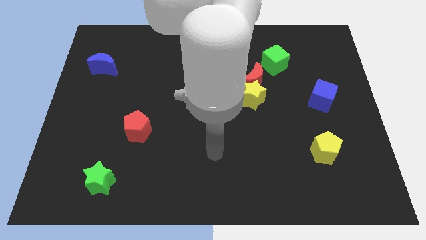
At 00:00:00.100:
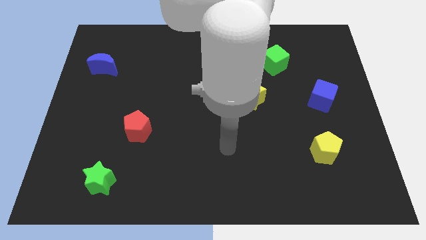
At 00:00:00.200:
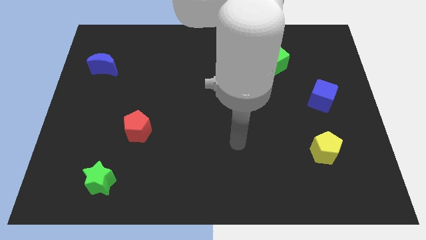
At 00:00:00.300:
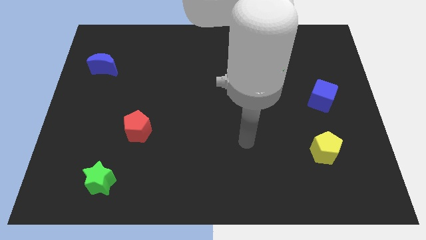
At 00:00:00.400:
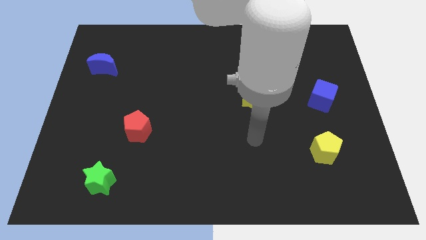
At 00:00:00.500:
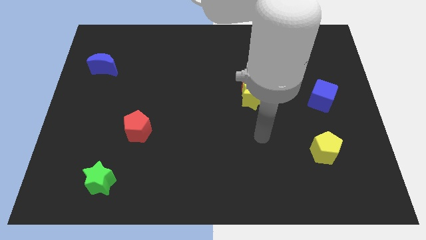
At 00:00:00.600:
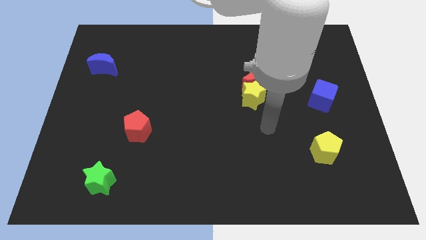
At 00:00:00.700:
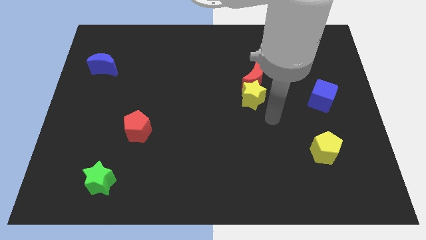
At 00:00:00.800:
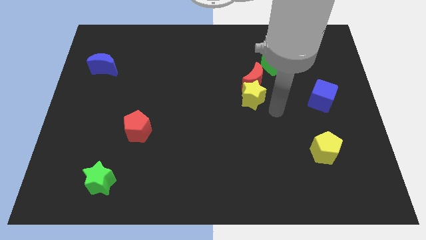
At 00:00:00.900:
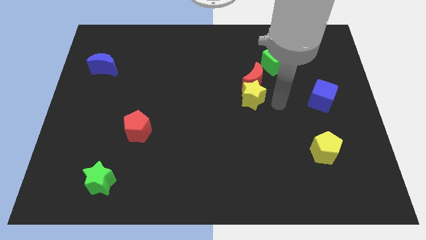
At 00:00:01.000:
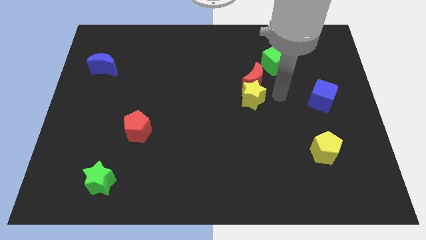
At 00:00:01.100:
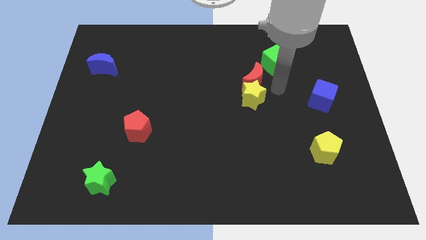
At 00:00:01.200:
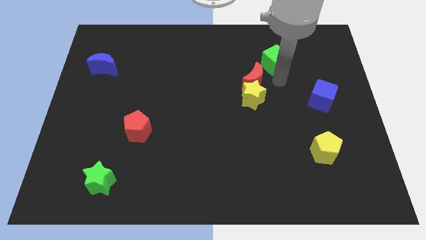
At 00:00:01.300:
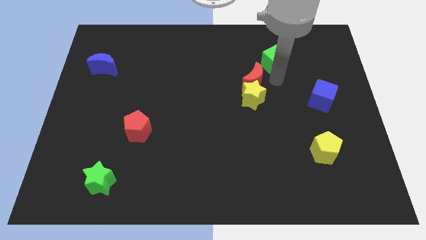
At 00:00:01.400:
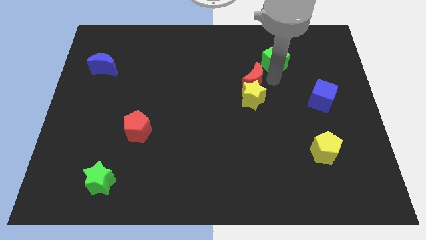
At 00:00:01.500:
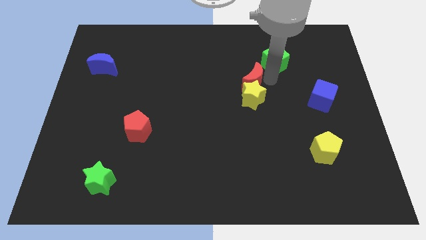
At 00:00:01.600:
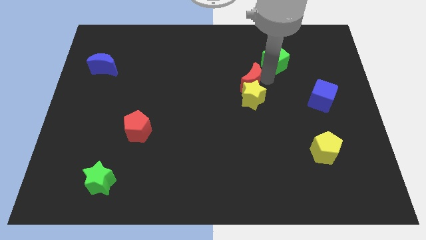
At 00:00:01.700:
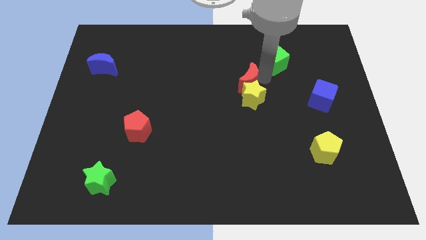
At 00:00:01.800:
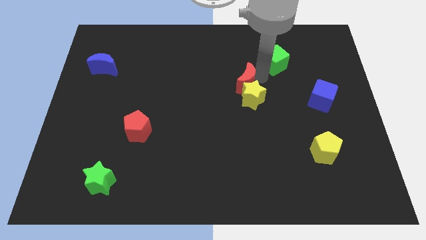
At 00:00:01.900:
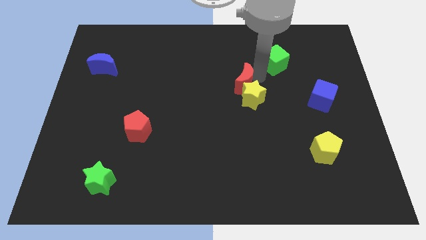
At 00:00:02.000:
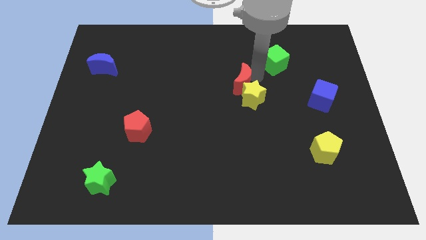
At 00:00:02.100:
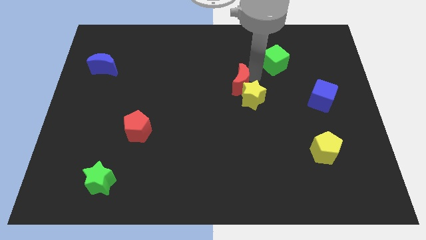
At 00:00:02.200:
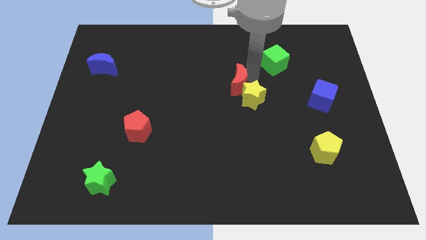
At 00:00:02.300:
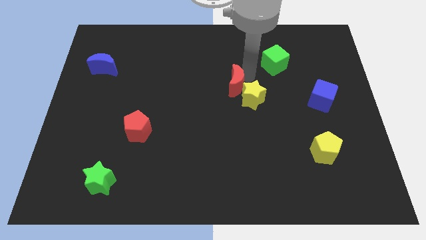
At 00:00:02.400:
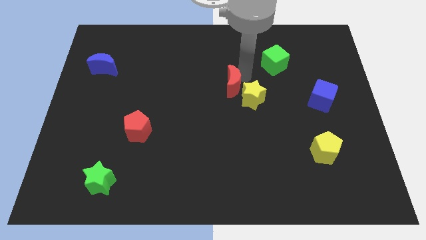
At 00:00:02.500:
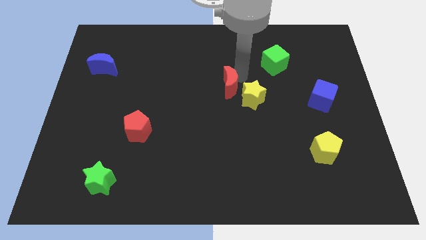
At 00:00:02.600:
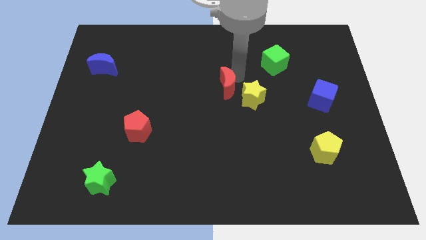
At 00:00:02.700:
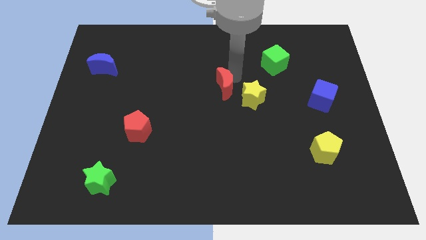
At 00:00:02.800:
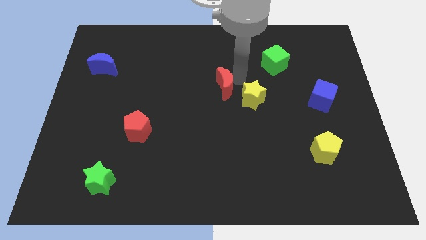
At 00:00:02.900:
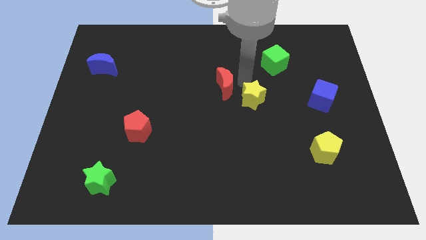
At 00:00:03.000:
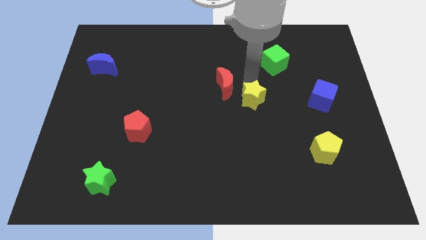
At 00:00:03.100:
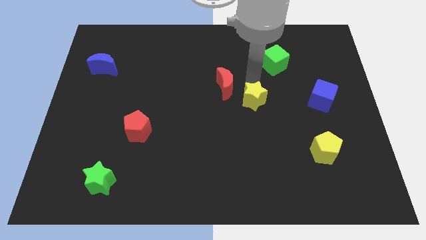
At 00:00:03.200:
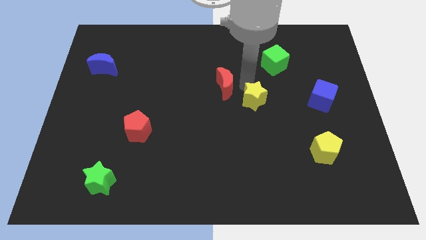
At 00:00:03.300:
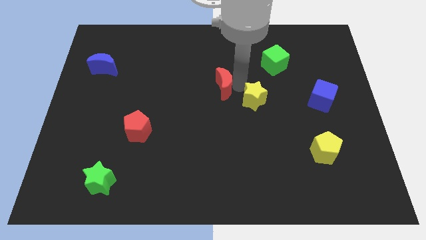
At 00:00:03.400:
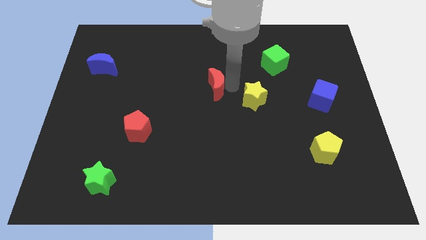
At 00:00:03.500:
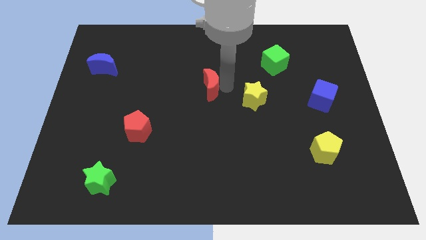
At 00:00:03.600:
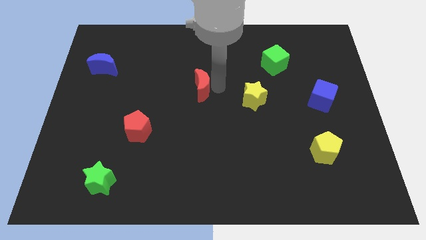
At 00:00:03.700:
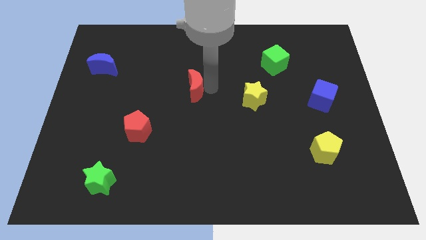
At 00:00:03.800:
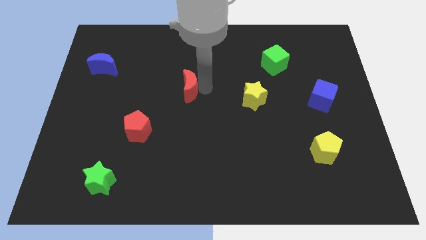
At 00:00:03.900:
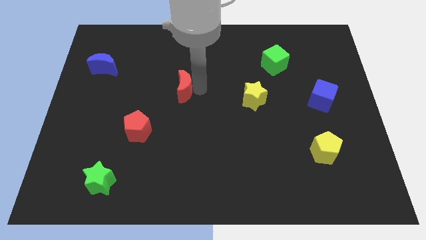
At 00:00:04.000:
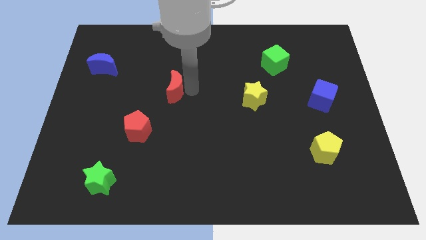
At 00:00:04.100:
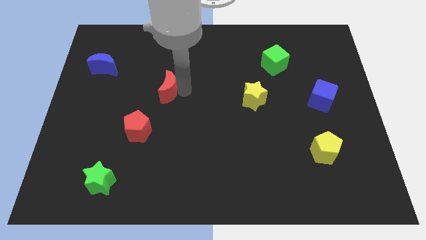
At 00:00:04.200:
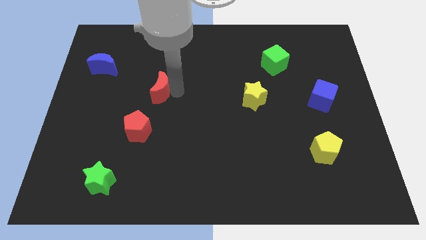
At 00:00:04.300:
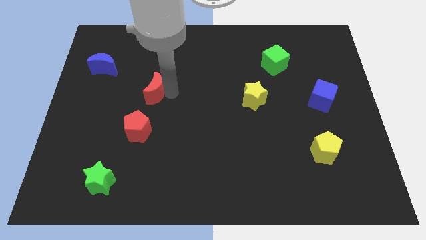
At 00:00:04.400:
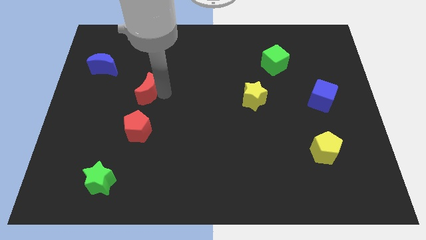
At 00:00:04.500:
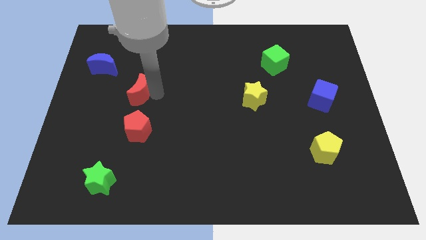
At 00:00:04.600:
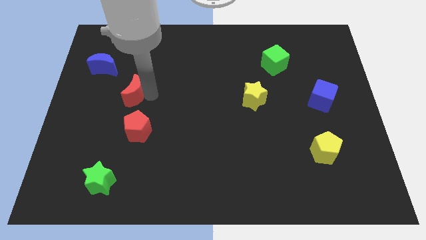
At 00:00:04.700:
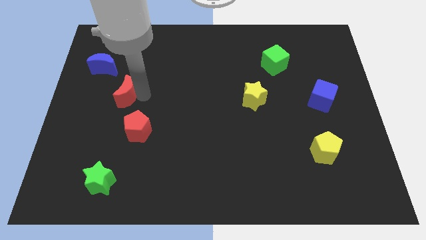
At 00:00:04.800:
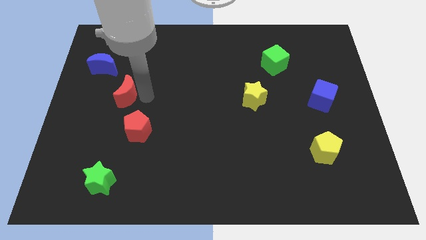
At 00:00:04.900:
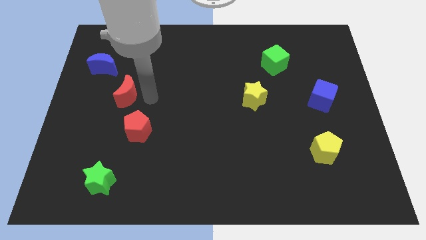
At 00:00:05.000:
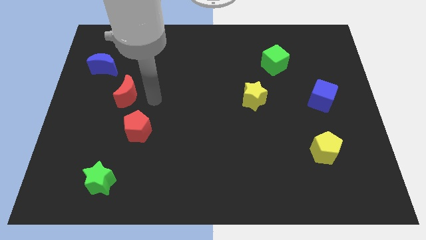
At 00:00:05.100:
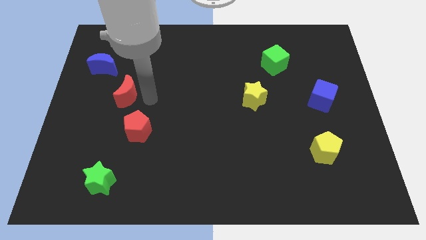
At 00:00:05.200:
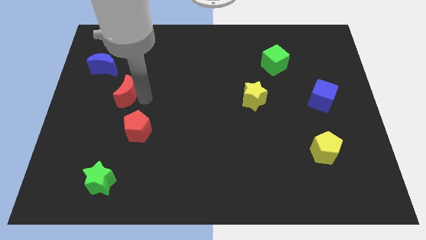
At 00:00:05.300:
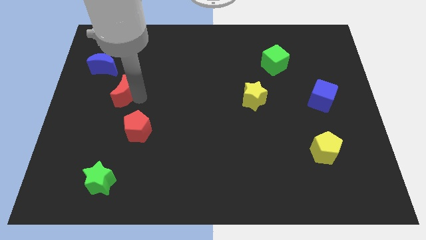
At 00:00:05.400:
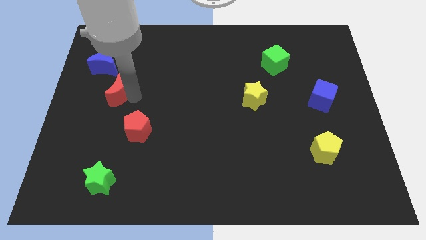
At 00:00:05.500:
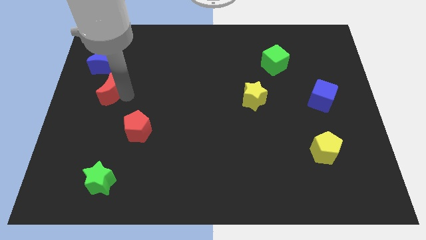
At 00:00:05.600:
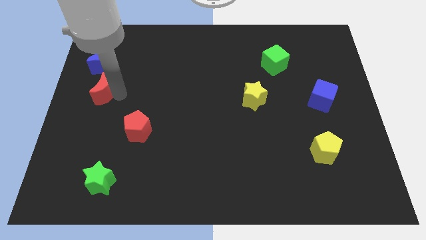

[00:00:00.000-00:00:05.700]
slide the red moon to the left side of the board
